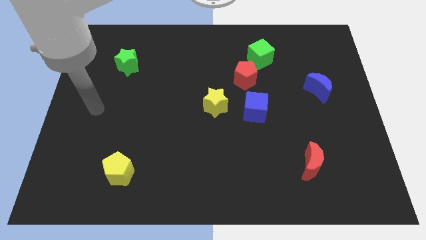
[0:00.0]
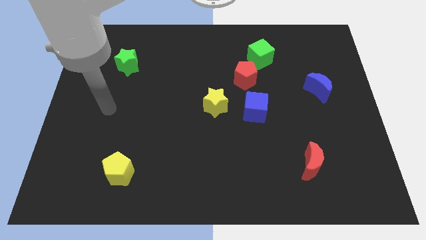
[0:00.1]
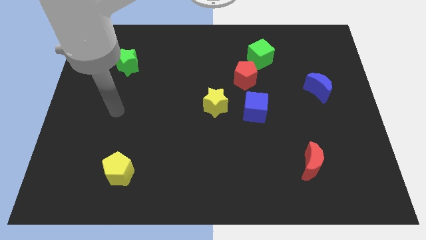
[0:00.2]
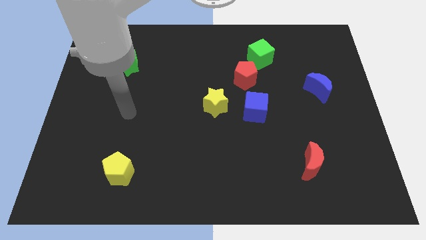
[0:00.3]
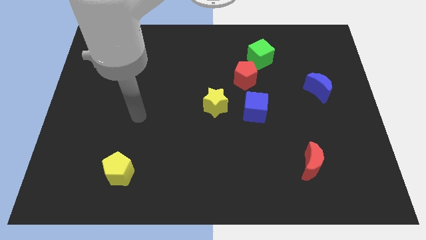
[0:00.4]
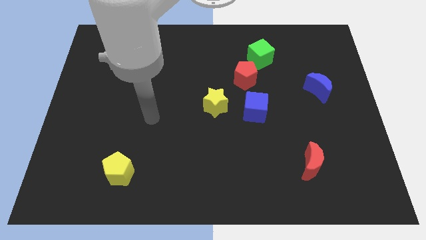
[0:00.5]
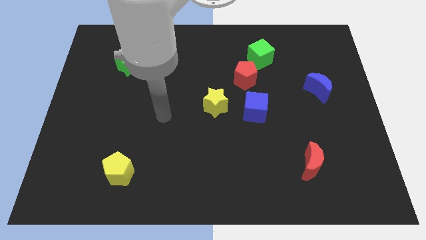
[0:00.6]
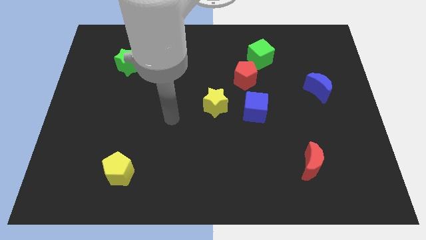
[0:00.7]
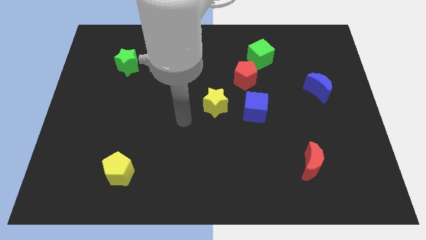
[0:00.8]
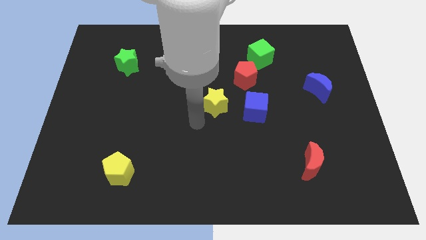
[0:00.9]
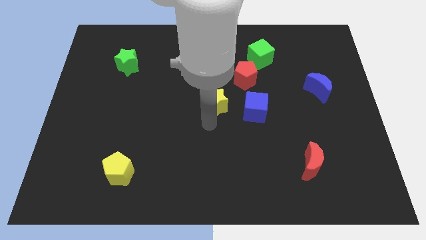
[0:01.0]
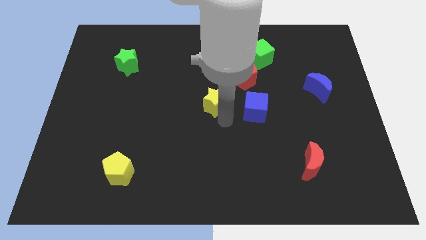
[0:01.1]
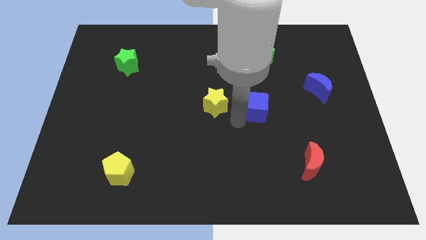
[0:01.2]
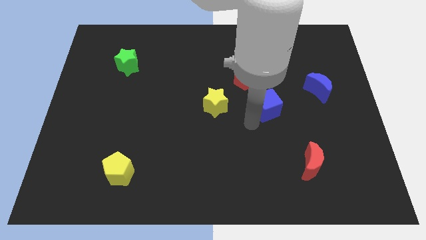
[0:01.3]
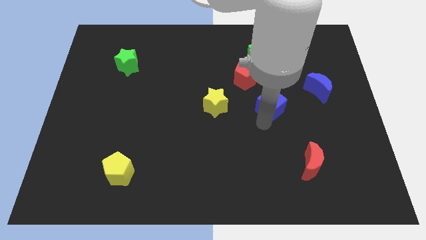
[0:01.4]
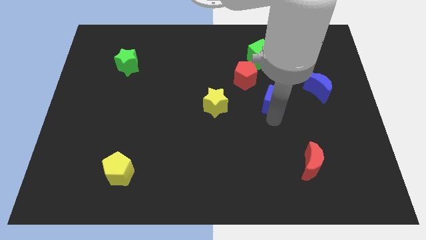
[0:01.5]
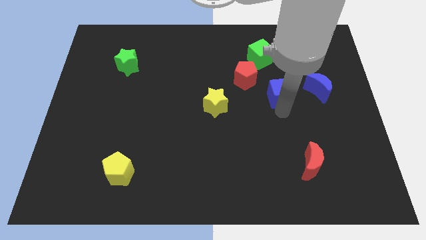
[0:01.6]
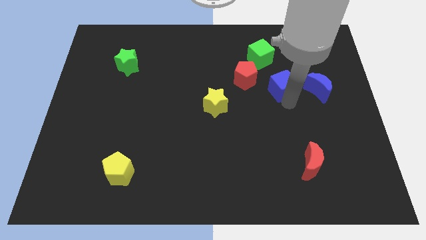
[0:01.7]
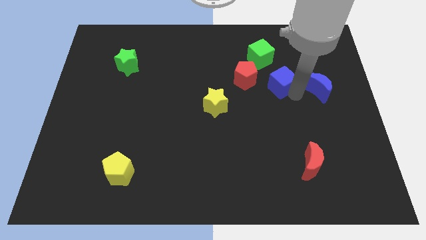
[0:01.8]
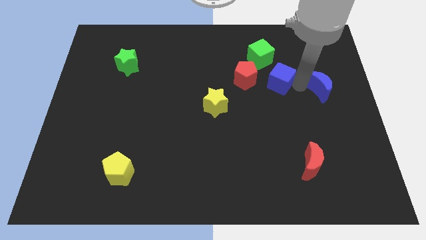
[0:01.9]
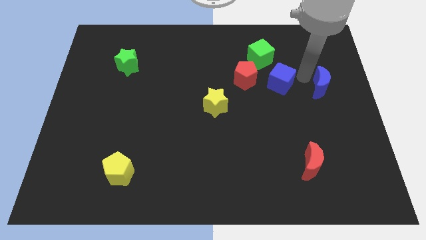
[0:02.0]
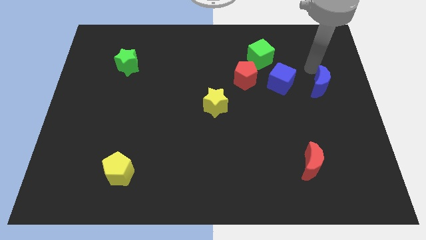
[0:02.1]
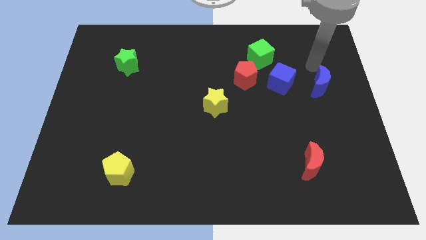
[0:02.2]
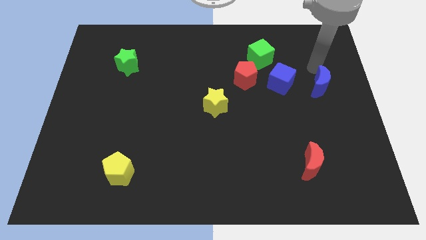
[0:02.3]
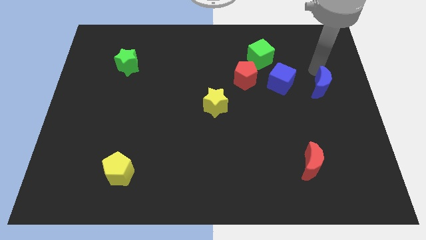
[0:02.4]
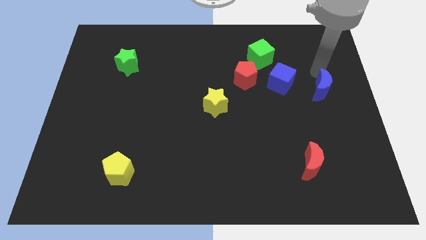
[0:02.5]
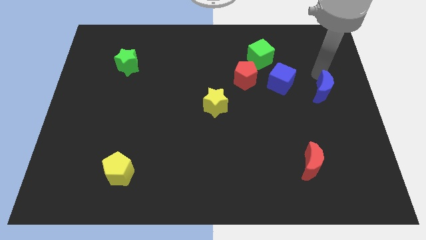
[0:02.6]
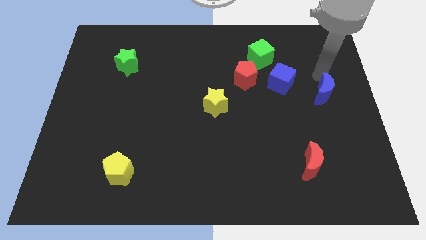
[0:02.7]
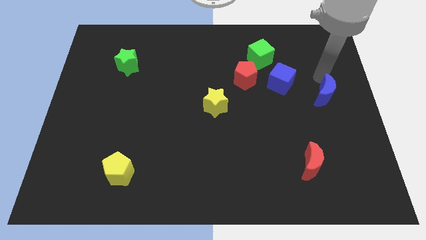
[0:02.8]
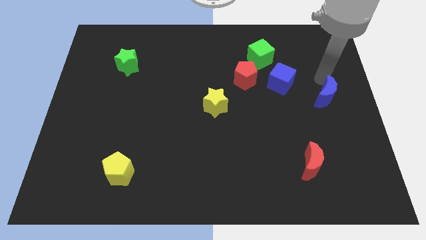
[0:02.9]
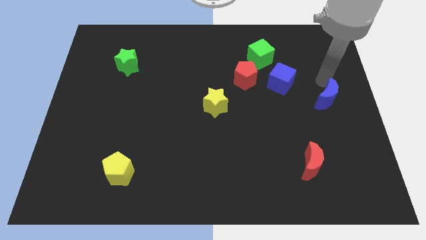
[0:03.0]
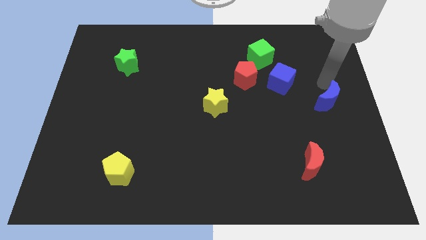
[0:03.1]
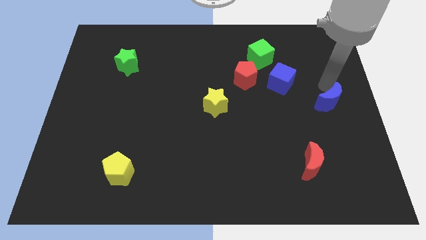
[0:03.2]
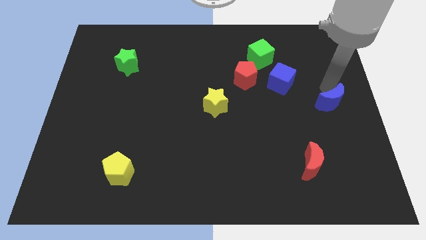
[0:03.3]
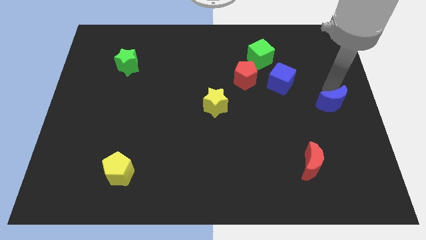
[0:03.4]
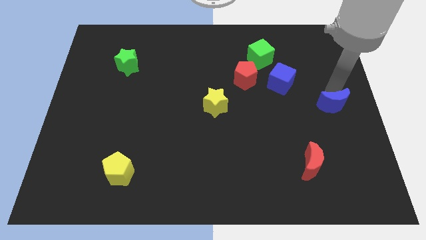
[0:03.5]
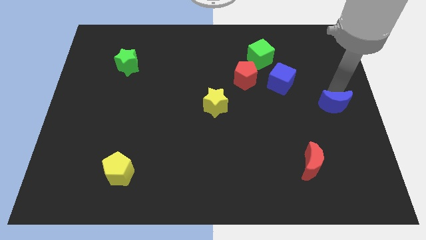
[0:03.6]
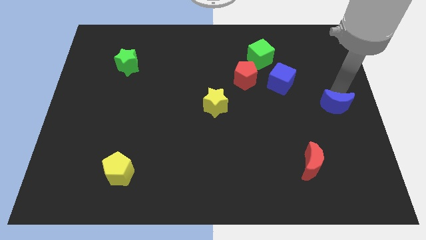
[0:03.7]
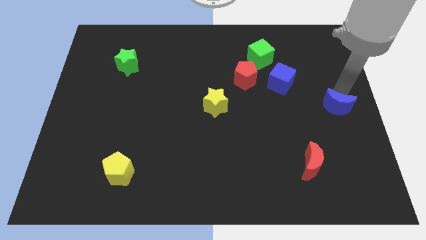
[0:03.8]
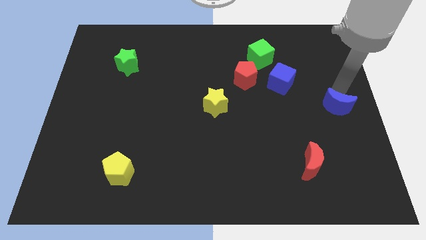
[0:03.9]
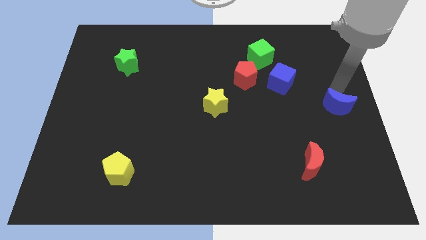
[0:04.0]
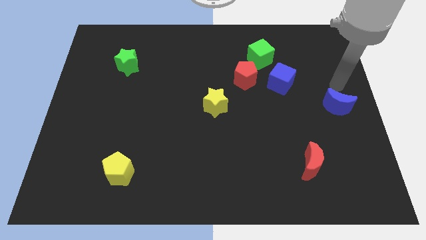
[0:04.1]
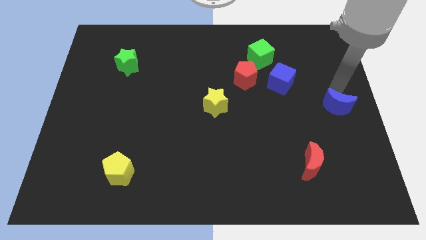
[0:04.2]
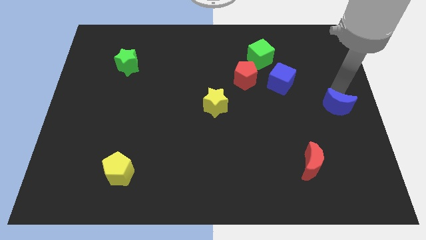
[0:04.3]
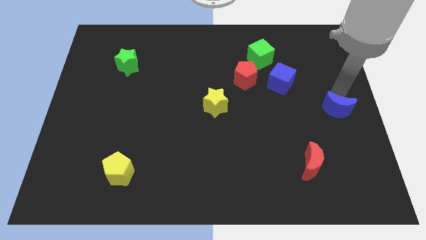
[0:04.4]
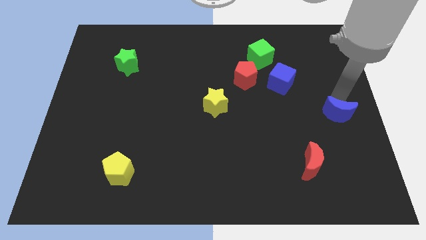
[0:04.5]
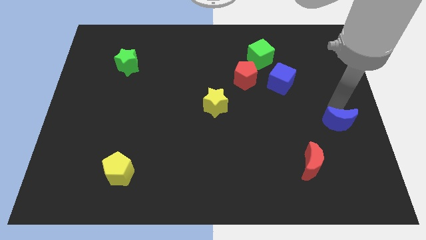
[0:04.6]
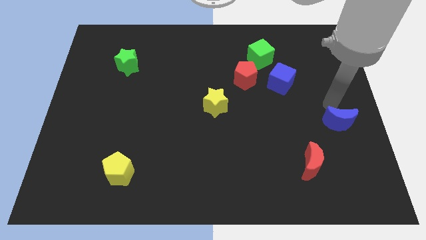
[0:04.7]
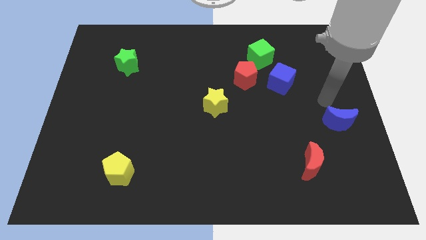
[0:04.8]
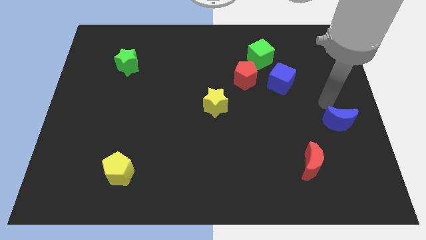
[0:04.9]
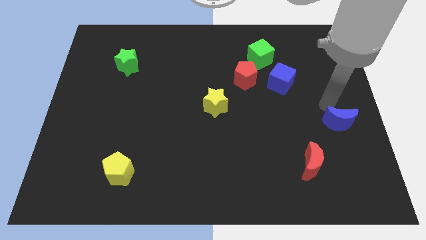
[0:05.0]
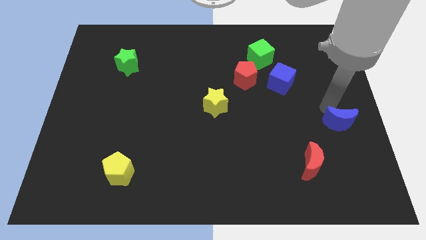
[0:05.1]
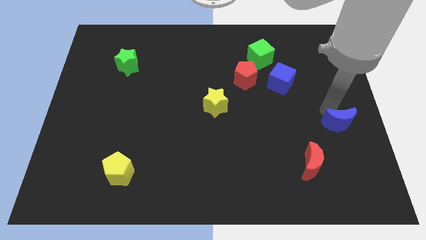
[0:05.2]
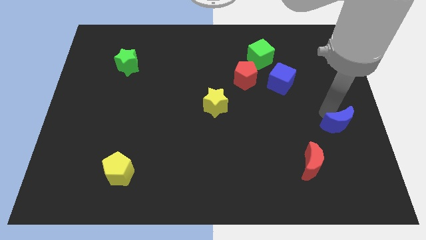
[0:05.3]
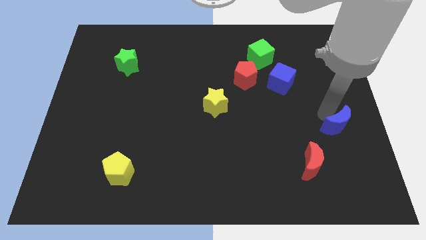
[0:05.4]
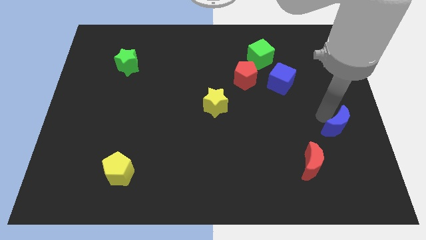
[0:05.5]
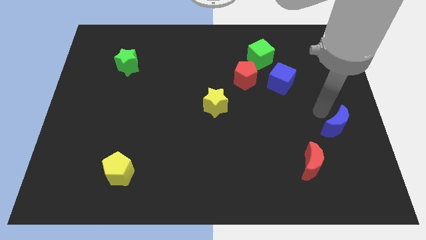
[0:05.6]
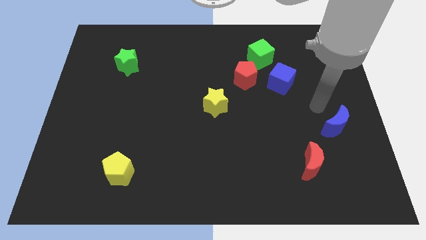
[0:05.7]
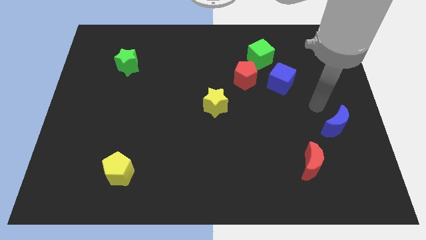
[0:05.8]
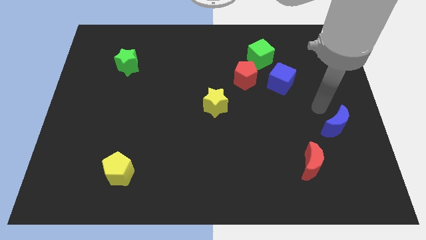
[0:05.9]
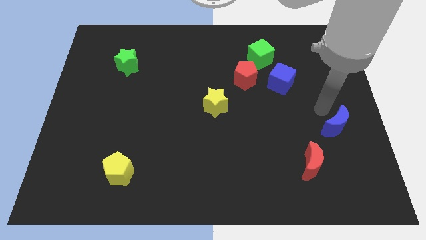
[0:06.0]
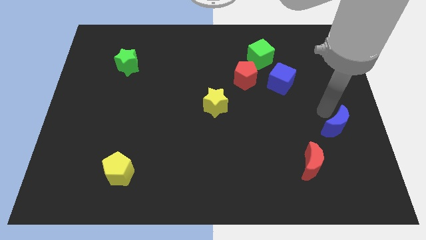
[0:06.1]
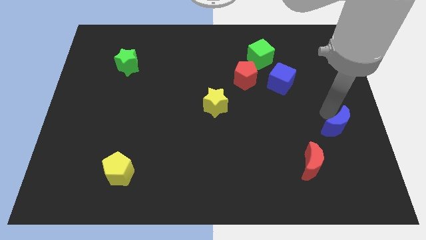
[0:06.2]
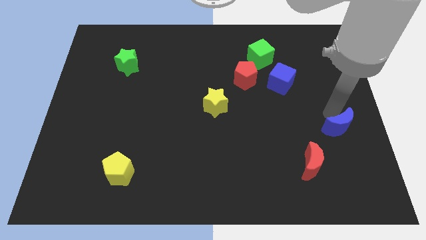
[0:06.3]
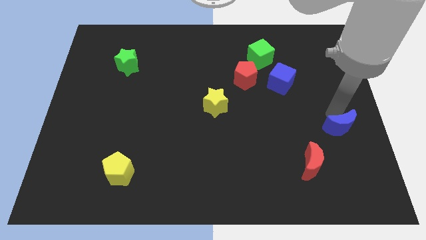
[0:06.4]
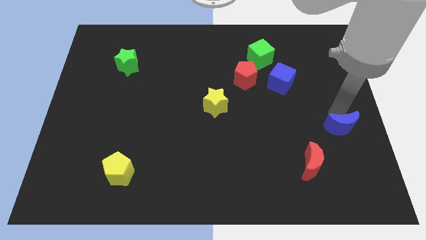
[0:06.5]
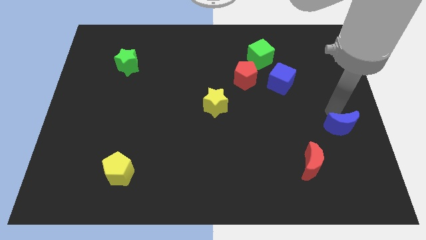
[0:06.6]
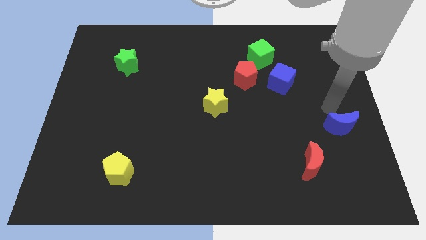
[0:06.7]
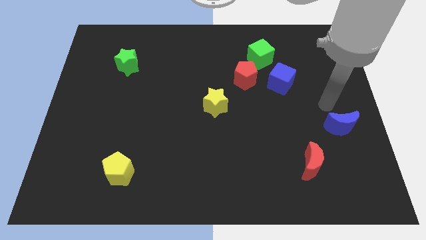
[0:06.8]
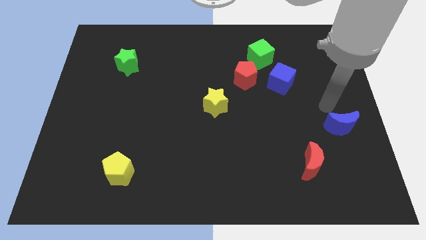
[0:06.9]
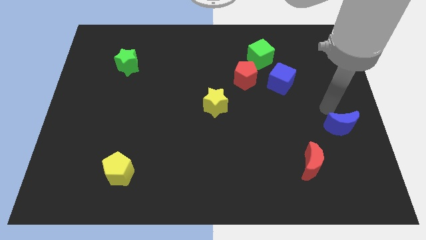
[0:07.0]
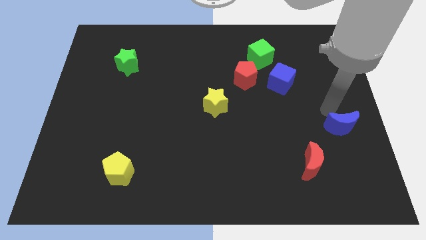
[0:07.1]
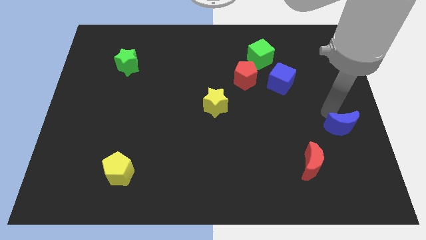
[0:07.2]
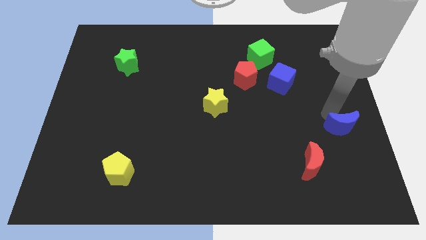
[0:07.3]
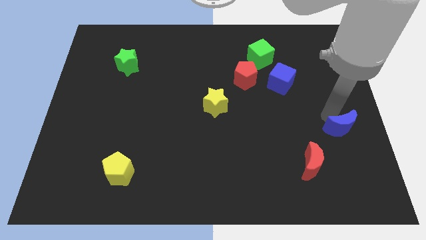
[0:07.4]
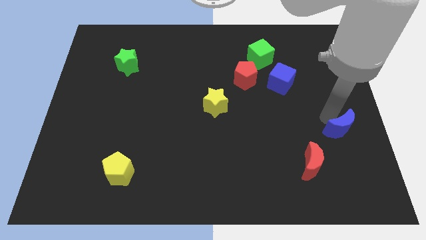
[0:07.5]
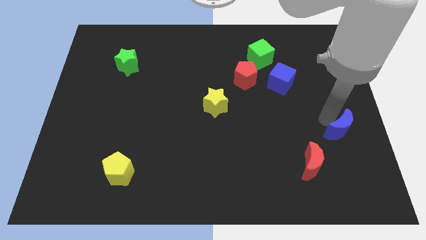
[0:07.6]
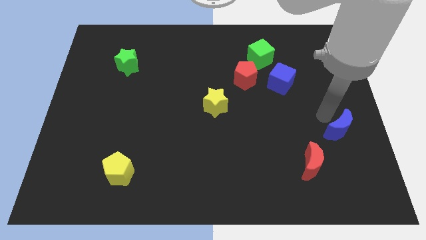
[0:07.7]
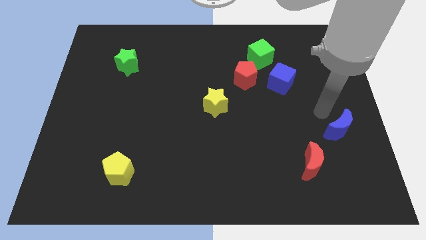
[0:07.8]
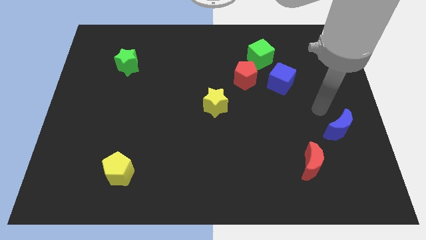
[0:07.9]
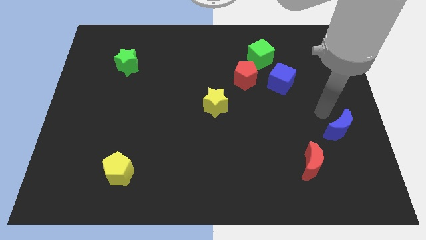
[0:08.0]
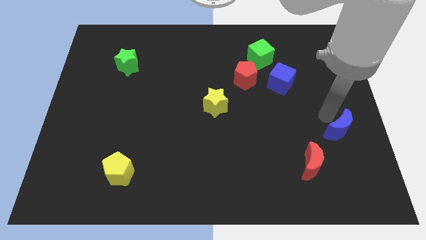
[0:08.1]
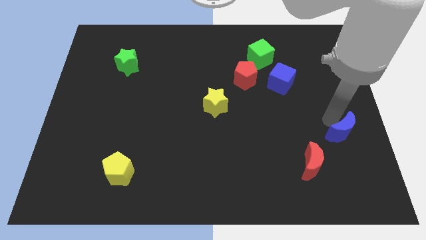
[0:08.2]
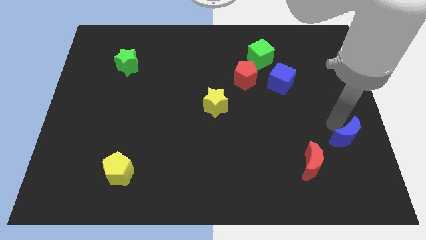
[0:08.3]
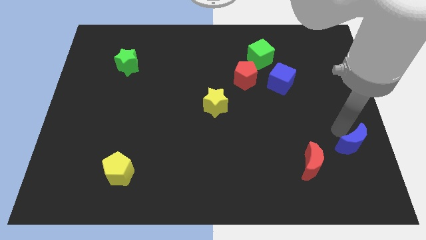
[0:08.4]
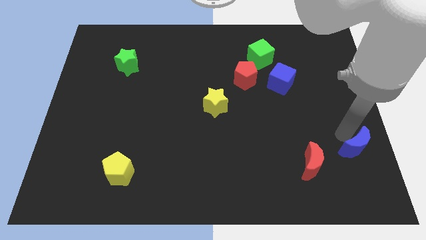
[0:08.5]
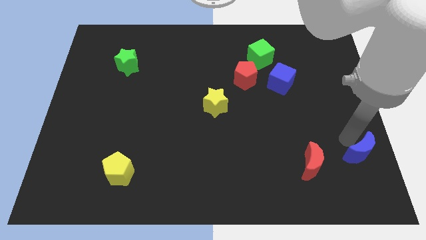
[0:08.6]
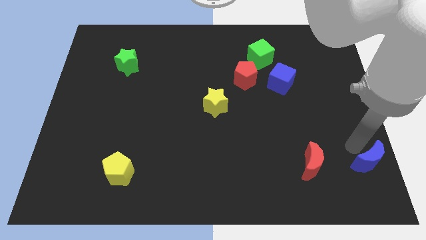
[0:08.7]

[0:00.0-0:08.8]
move the blue moon to the bottom right
